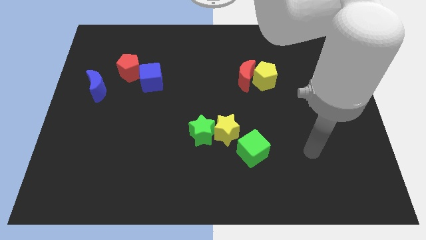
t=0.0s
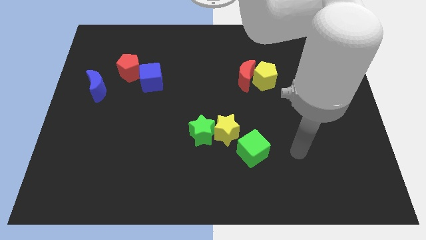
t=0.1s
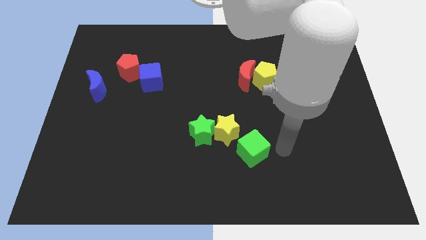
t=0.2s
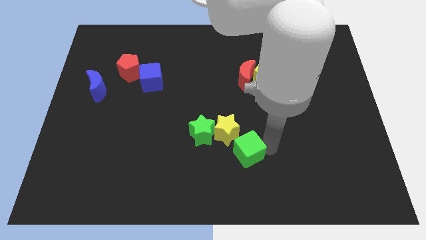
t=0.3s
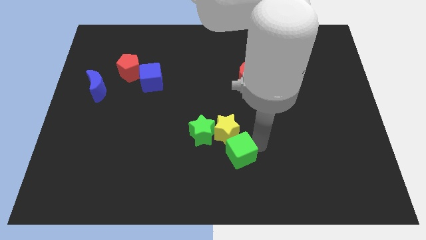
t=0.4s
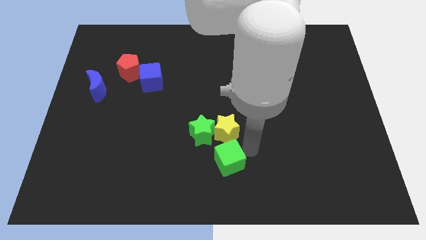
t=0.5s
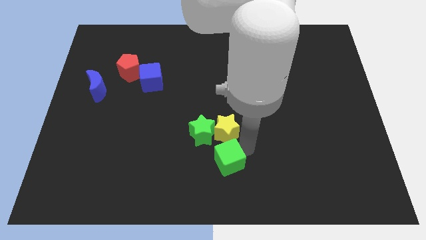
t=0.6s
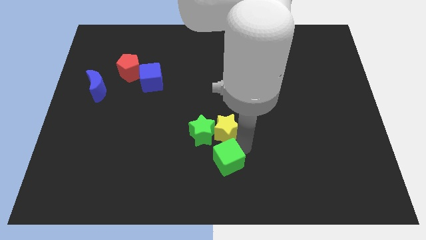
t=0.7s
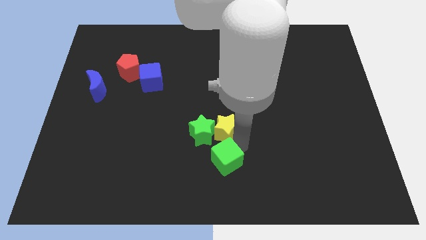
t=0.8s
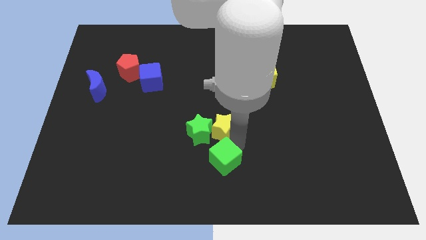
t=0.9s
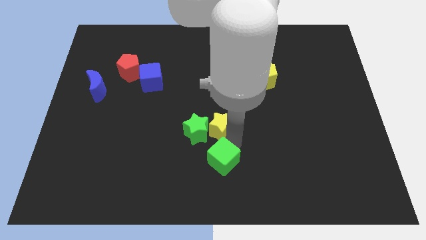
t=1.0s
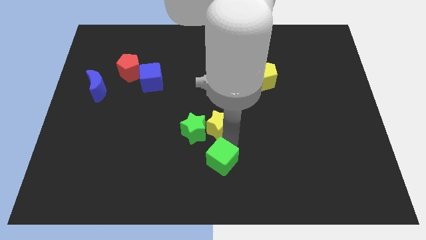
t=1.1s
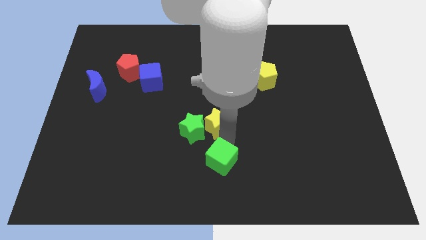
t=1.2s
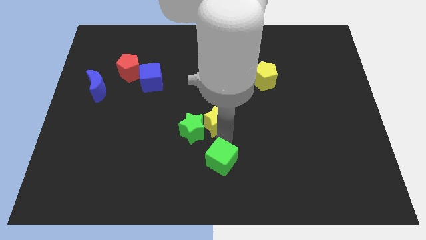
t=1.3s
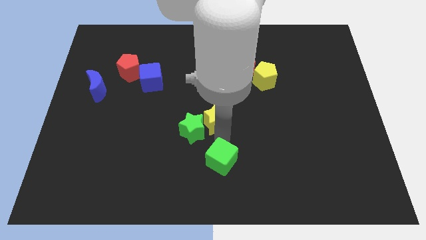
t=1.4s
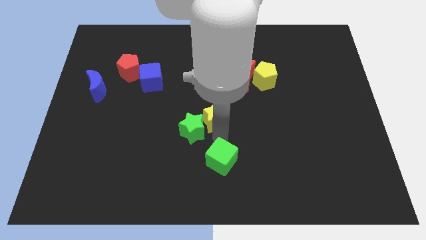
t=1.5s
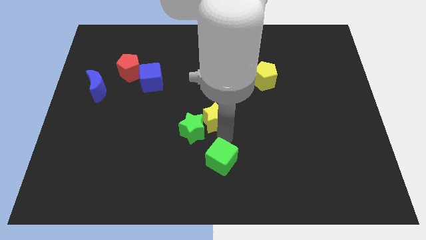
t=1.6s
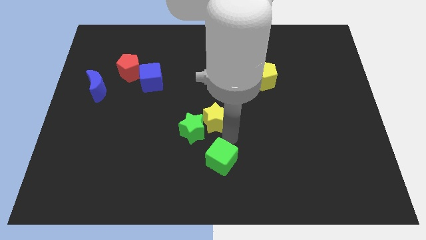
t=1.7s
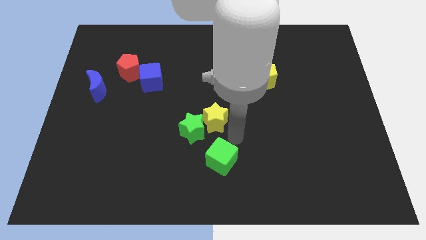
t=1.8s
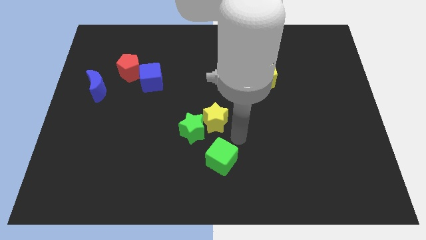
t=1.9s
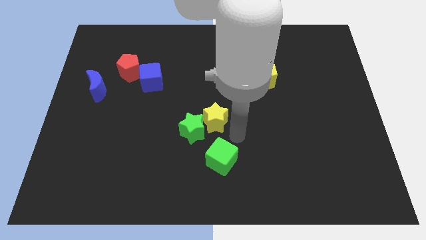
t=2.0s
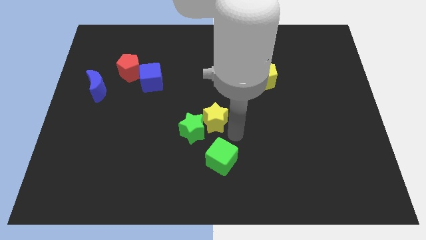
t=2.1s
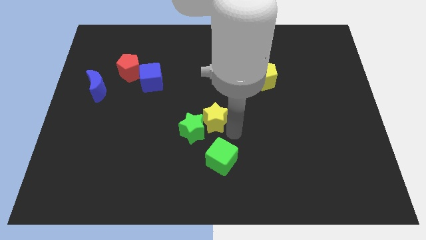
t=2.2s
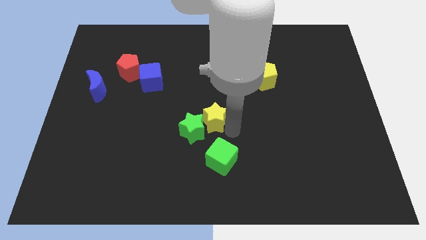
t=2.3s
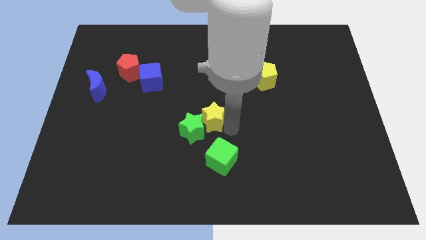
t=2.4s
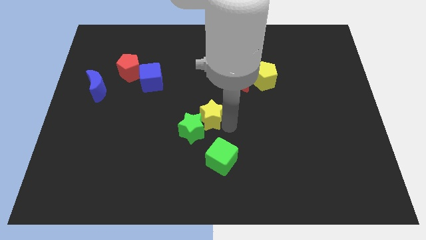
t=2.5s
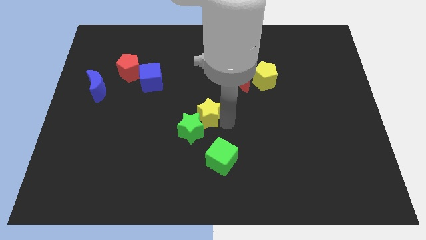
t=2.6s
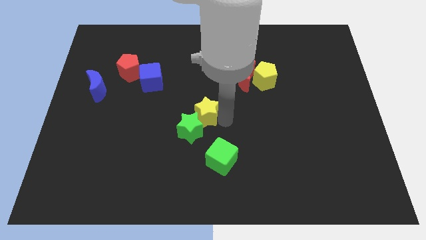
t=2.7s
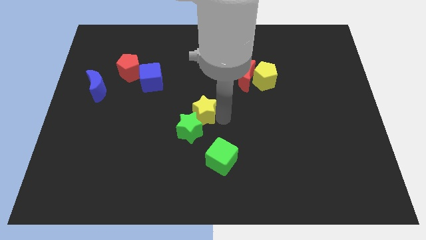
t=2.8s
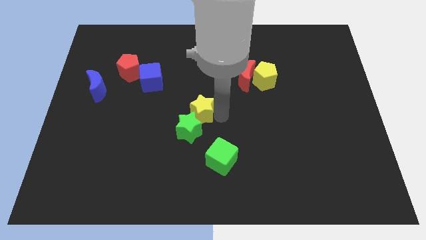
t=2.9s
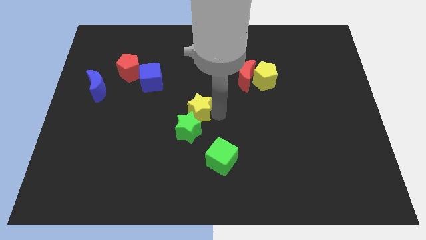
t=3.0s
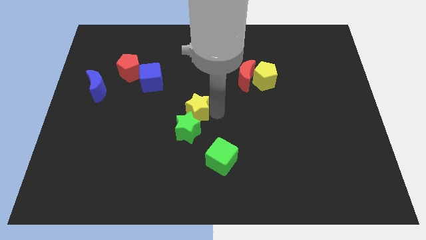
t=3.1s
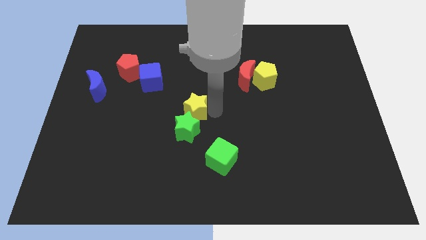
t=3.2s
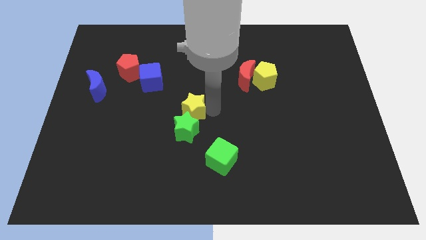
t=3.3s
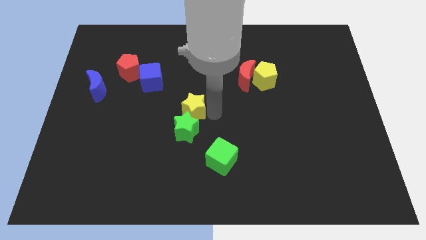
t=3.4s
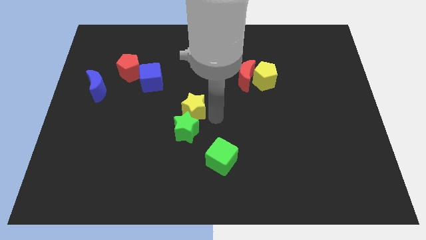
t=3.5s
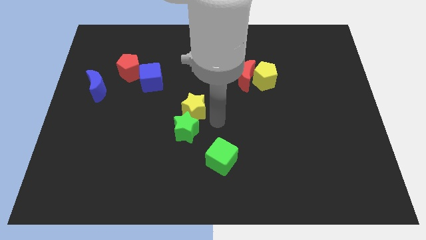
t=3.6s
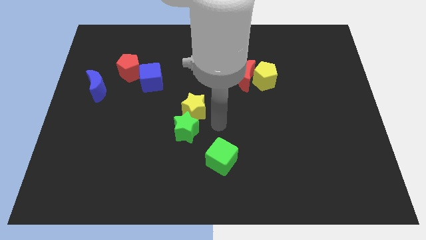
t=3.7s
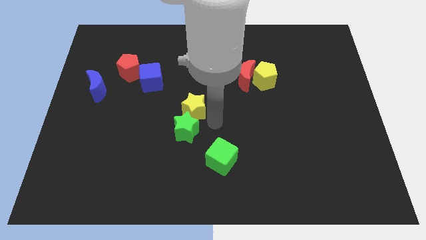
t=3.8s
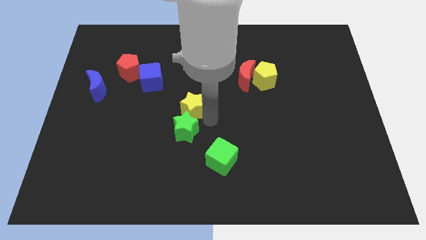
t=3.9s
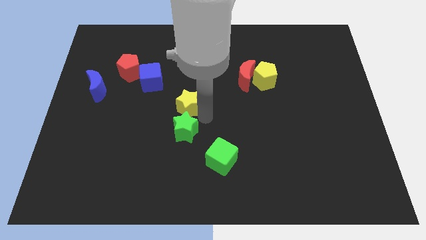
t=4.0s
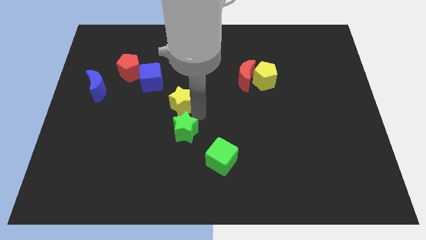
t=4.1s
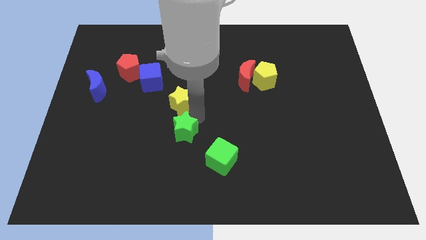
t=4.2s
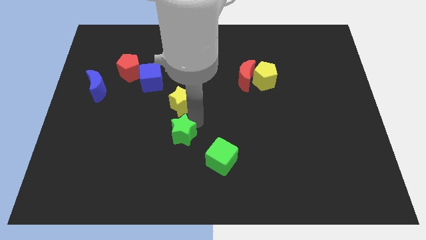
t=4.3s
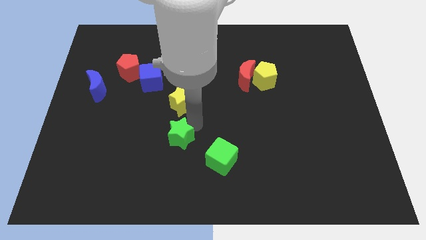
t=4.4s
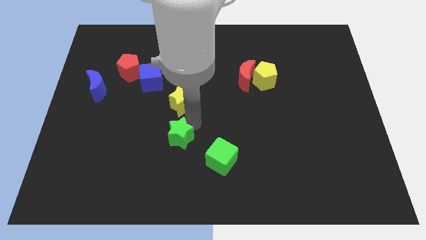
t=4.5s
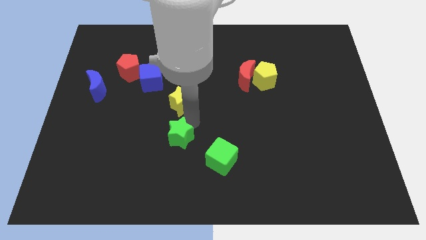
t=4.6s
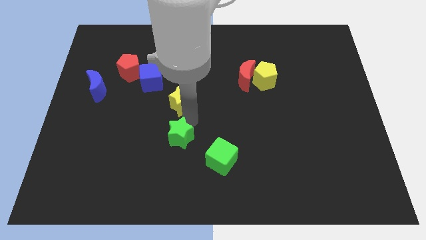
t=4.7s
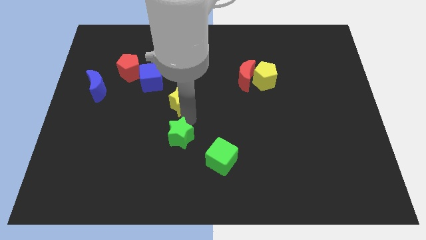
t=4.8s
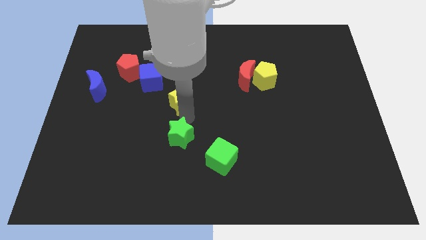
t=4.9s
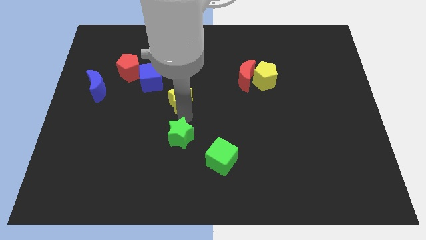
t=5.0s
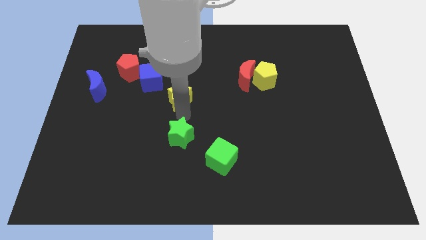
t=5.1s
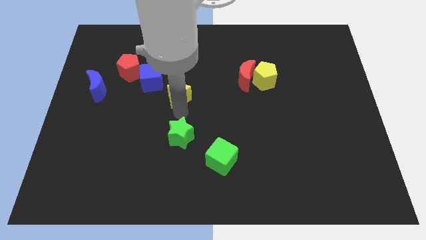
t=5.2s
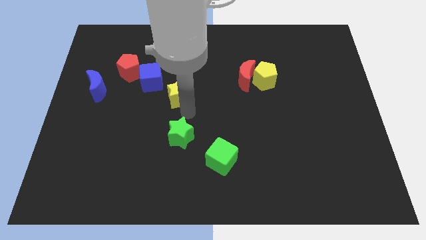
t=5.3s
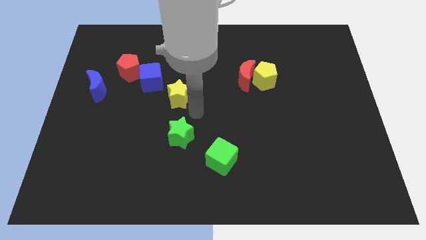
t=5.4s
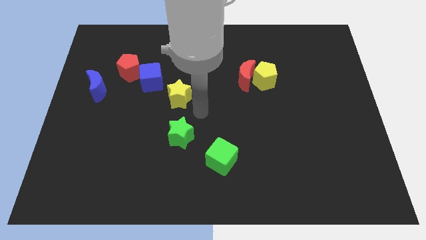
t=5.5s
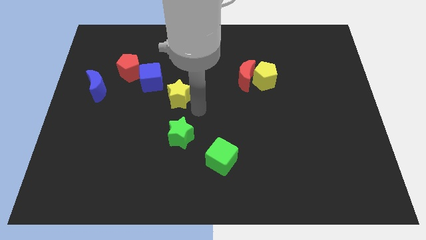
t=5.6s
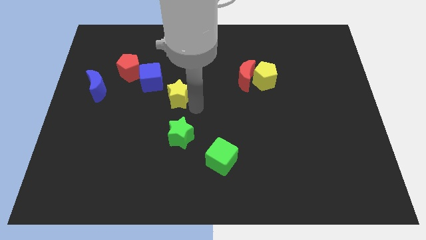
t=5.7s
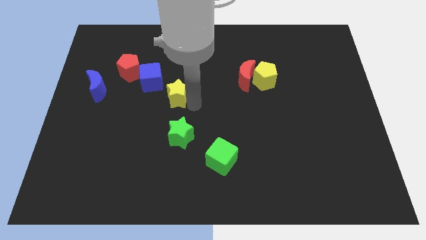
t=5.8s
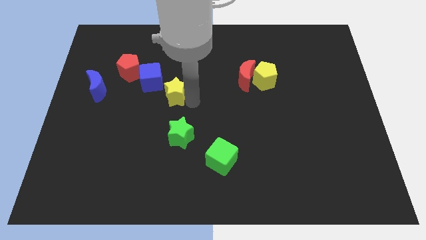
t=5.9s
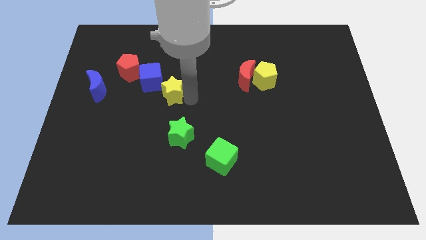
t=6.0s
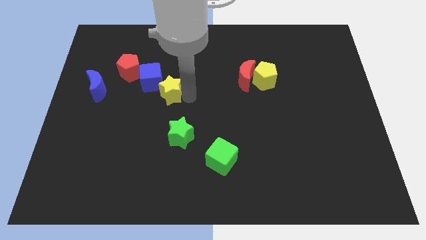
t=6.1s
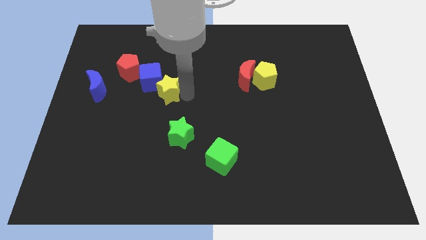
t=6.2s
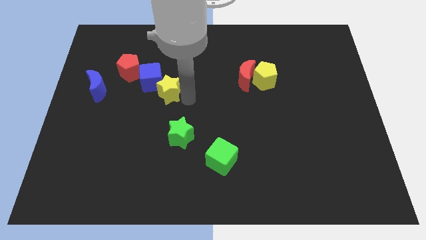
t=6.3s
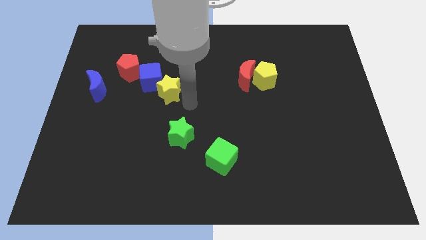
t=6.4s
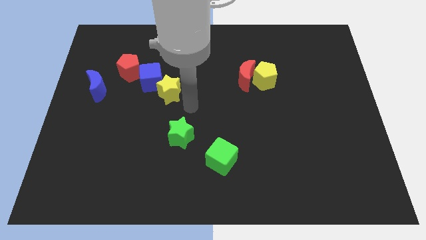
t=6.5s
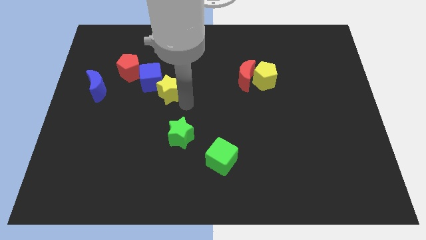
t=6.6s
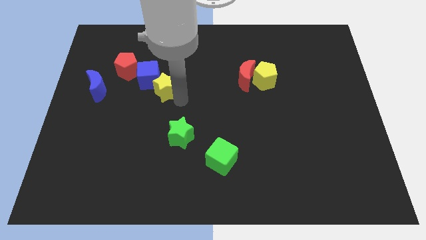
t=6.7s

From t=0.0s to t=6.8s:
put the yellow star towards the blue cube

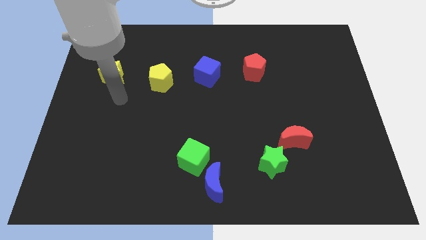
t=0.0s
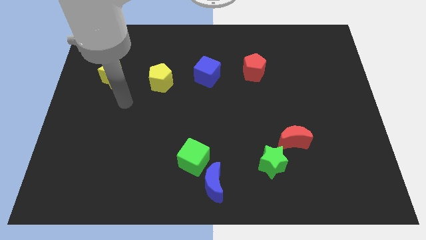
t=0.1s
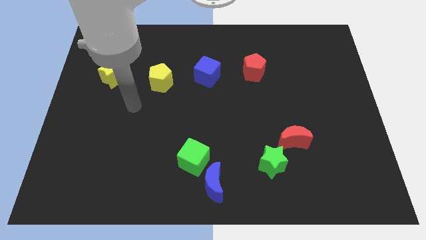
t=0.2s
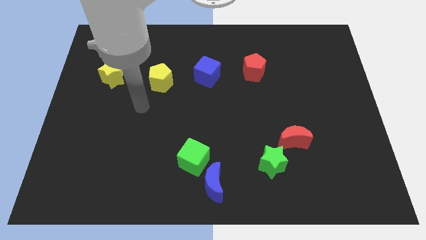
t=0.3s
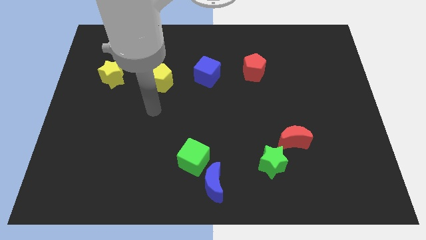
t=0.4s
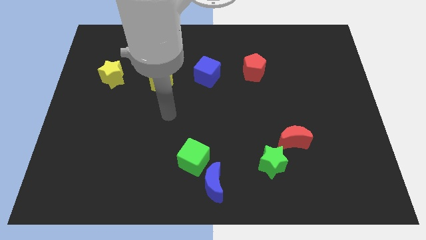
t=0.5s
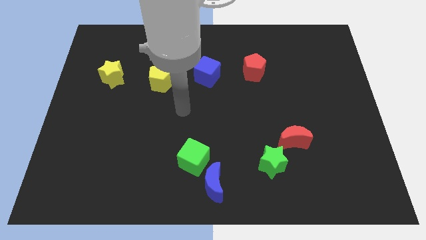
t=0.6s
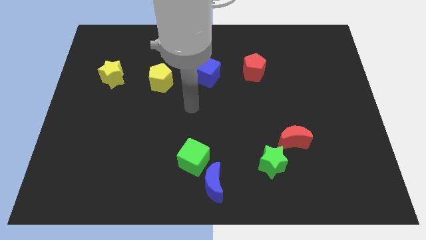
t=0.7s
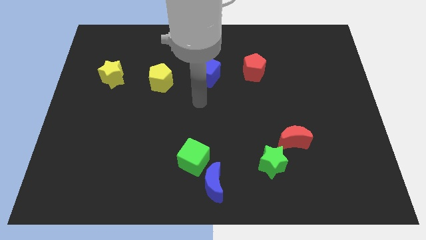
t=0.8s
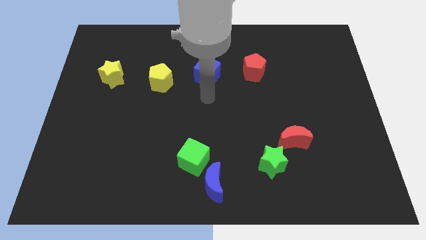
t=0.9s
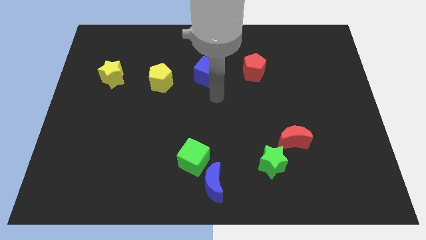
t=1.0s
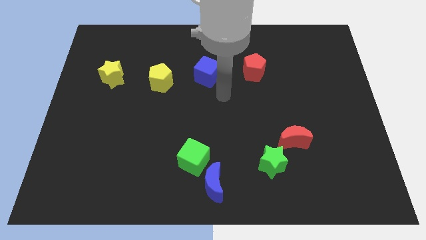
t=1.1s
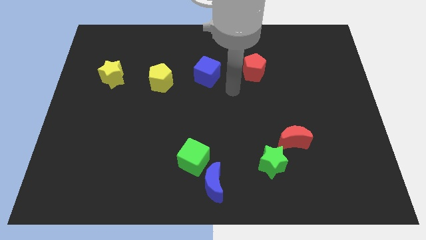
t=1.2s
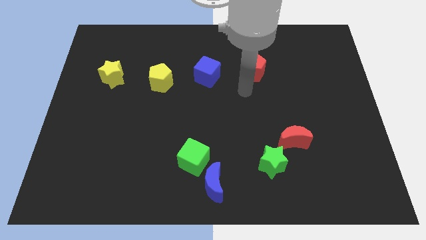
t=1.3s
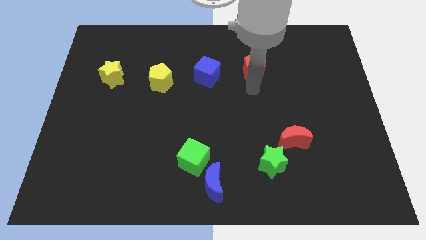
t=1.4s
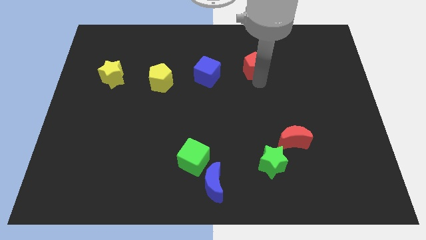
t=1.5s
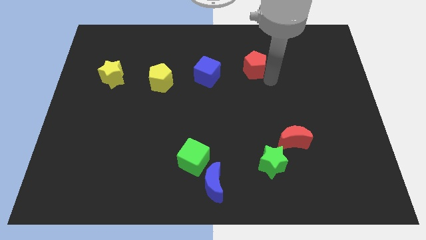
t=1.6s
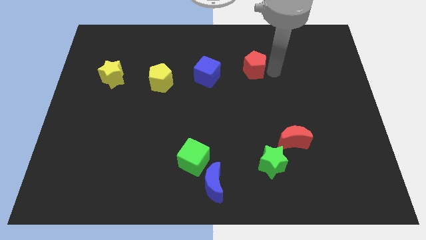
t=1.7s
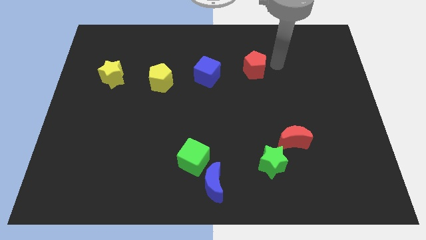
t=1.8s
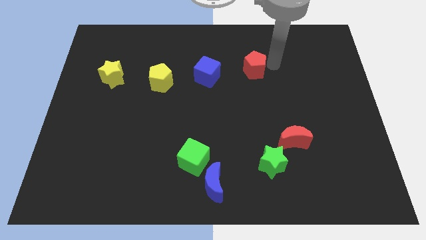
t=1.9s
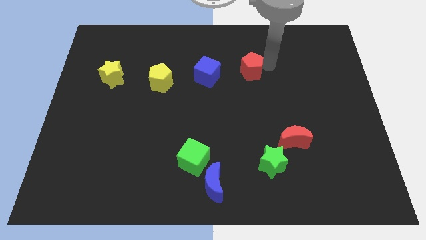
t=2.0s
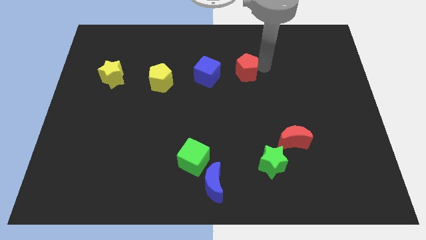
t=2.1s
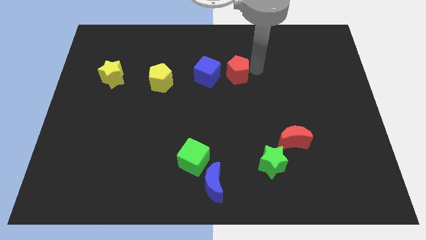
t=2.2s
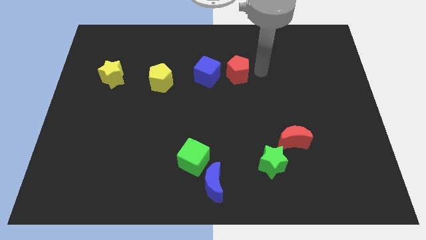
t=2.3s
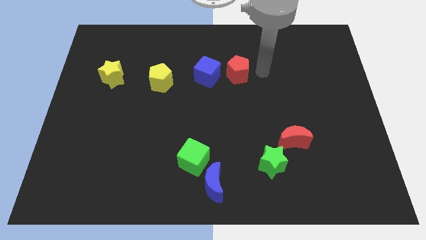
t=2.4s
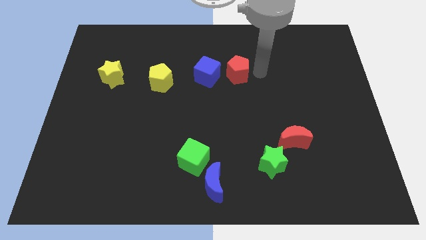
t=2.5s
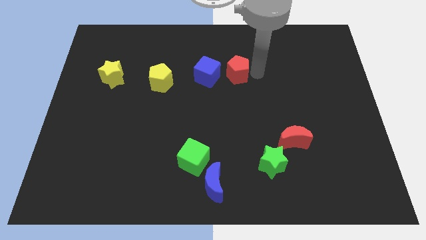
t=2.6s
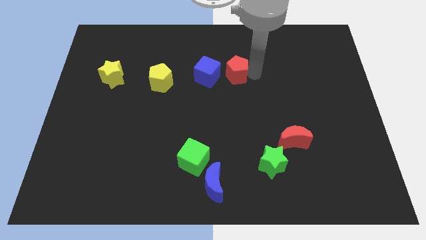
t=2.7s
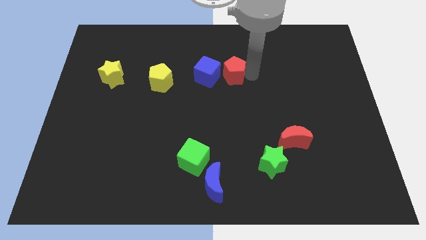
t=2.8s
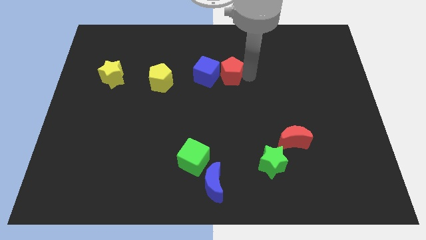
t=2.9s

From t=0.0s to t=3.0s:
push the red pentagon to the blue cube
